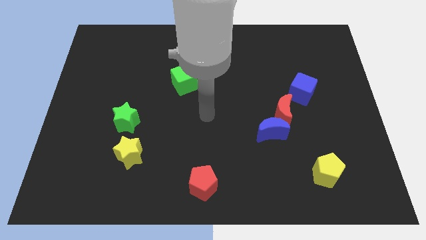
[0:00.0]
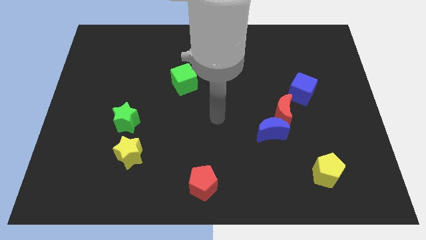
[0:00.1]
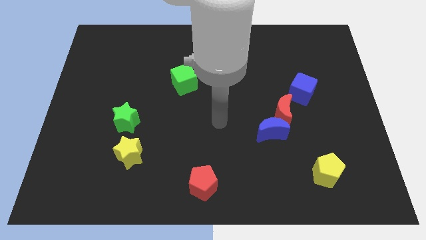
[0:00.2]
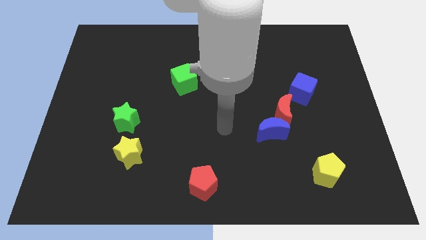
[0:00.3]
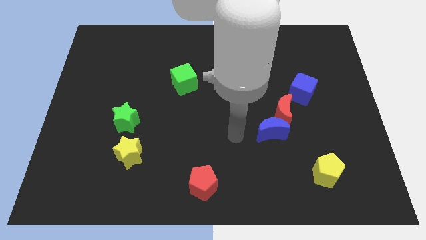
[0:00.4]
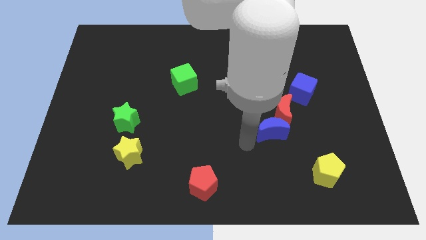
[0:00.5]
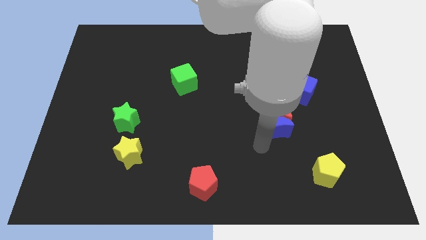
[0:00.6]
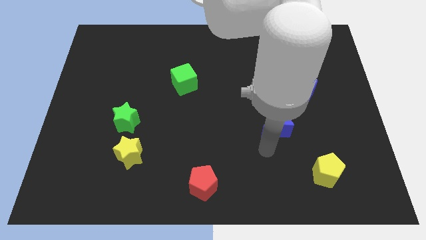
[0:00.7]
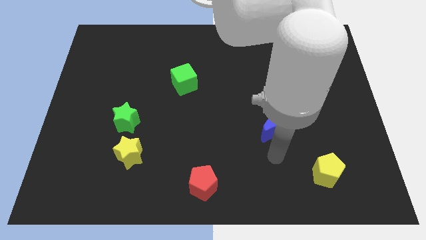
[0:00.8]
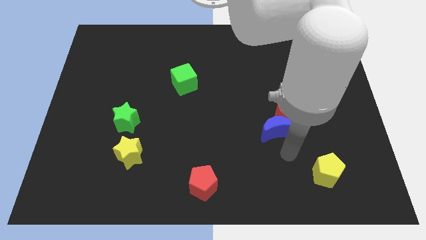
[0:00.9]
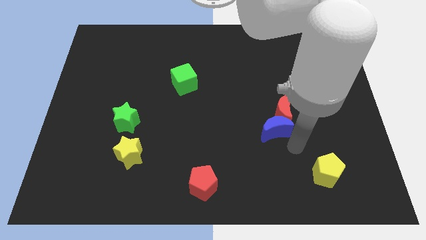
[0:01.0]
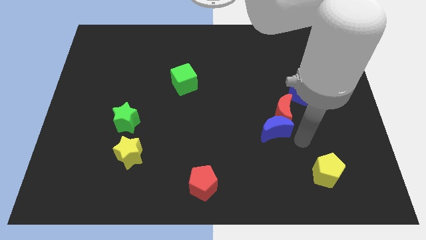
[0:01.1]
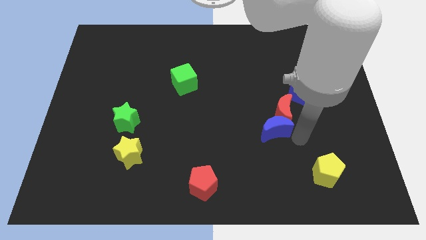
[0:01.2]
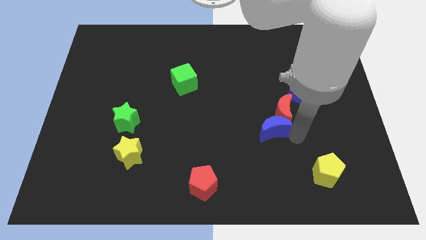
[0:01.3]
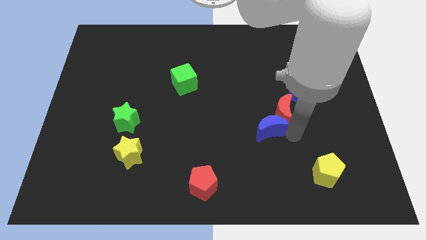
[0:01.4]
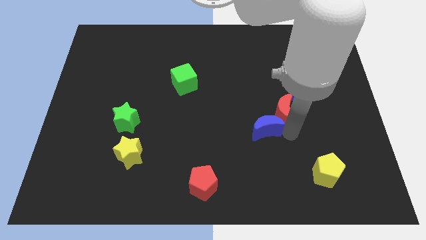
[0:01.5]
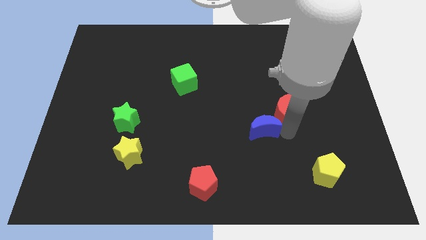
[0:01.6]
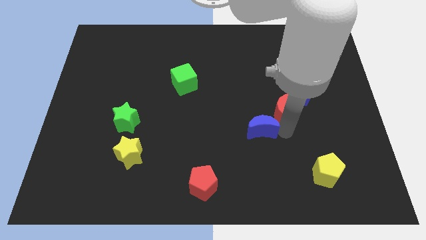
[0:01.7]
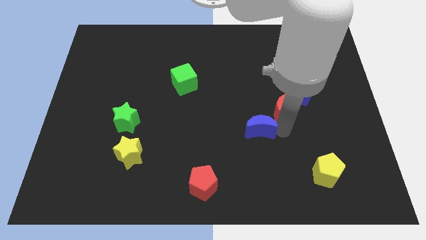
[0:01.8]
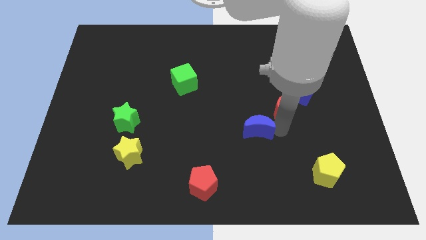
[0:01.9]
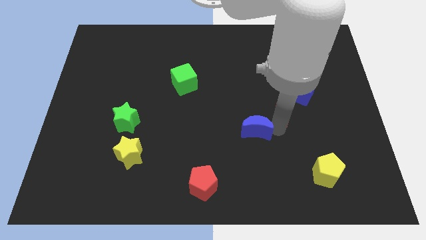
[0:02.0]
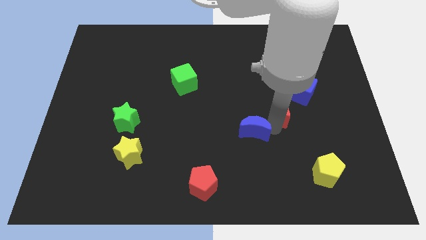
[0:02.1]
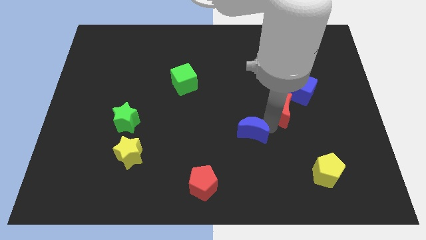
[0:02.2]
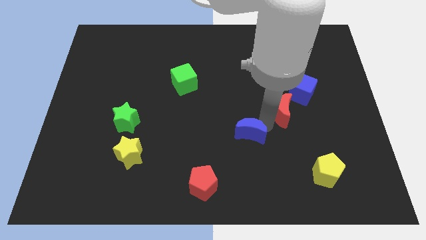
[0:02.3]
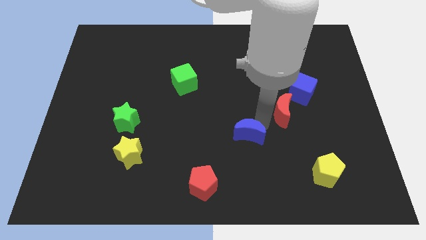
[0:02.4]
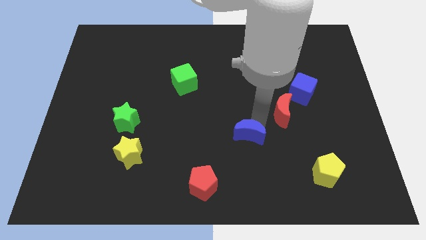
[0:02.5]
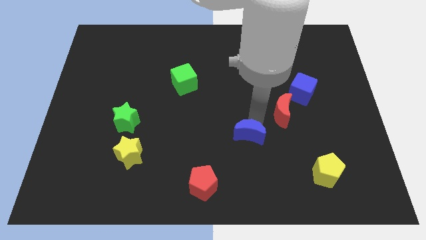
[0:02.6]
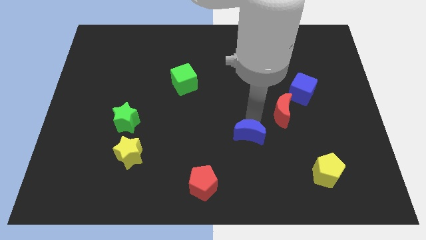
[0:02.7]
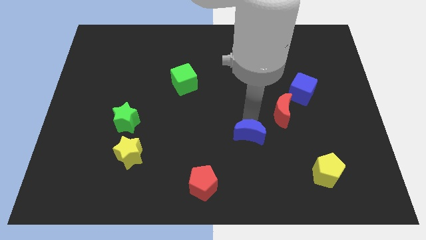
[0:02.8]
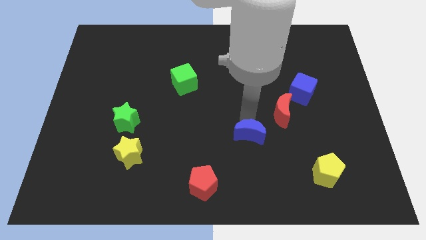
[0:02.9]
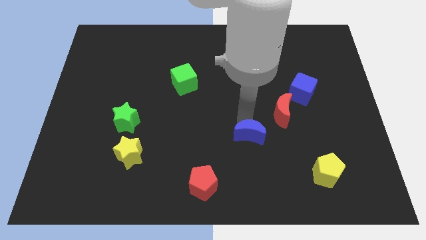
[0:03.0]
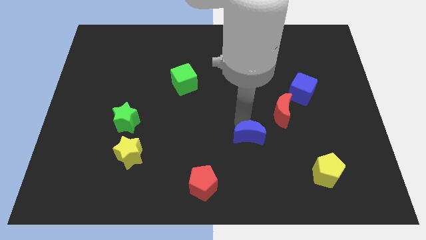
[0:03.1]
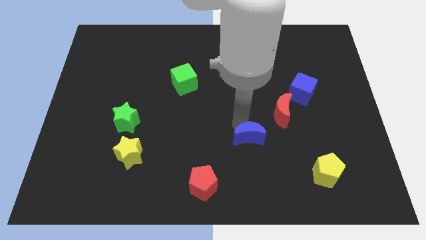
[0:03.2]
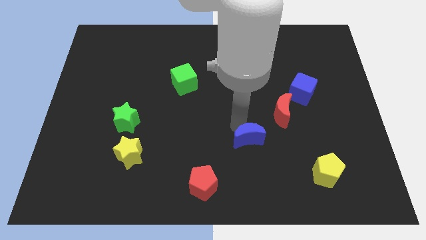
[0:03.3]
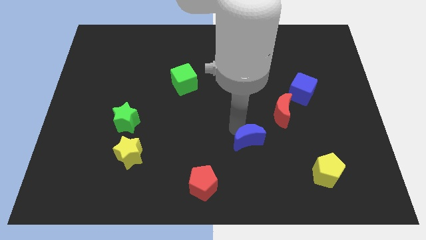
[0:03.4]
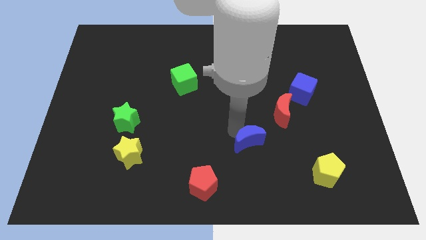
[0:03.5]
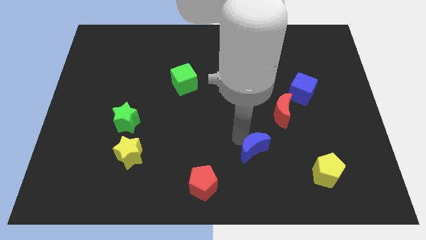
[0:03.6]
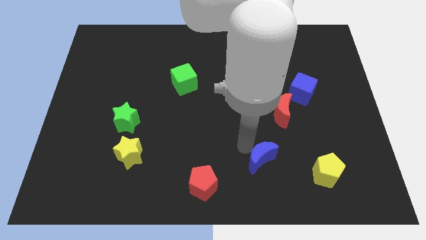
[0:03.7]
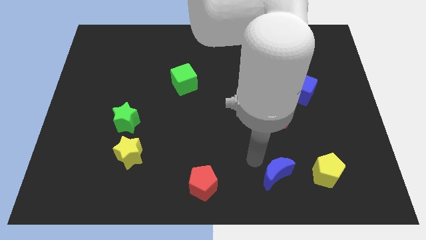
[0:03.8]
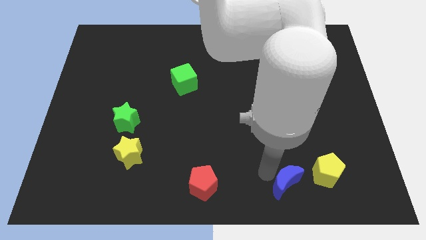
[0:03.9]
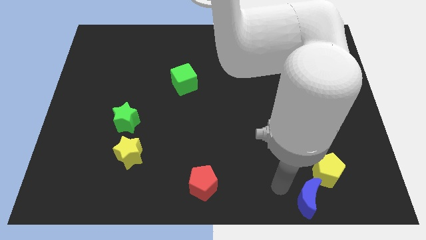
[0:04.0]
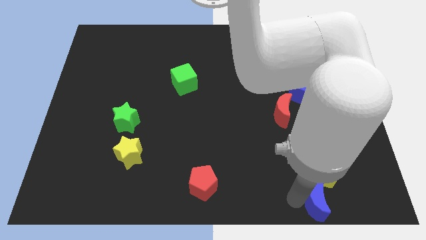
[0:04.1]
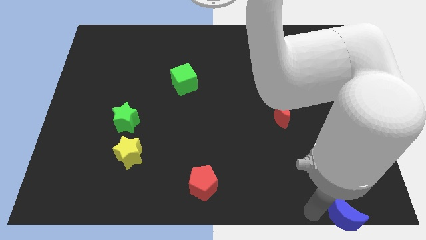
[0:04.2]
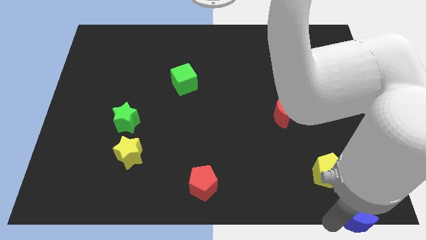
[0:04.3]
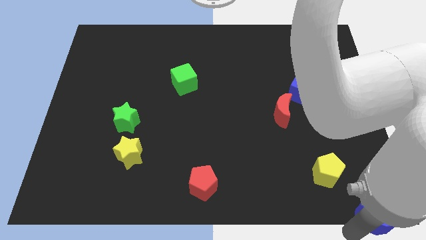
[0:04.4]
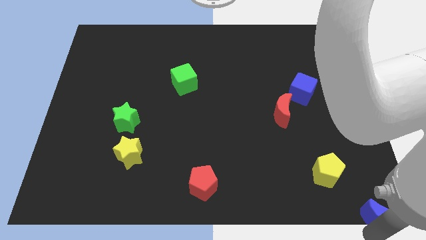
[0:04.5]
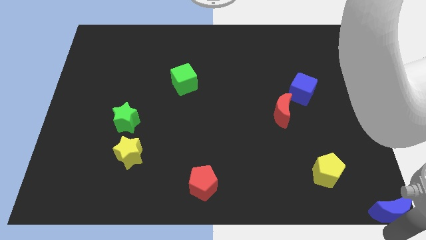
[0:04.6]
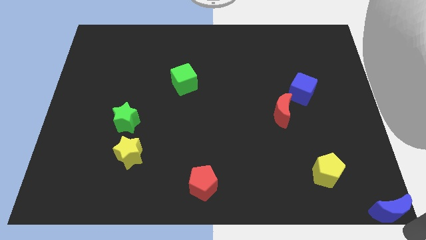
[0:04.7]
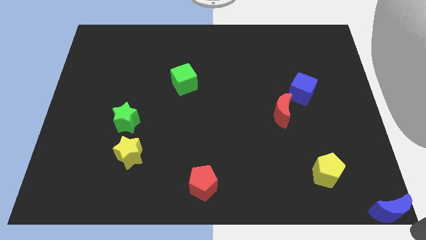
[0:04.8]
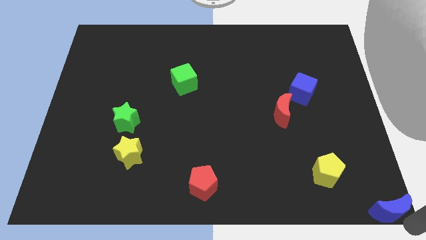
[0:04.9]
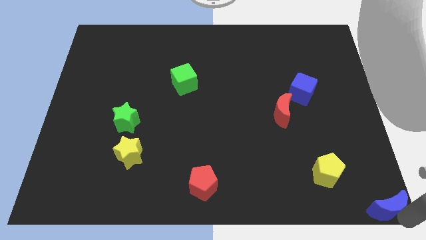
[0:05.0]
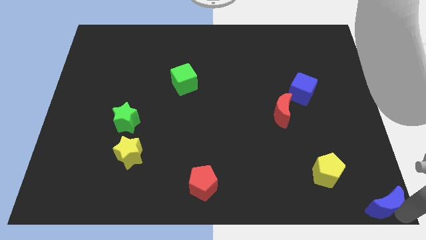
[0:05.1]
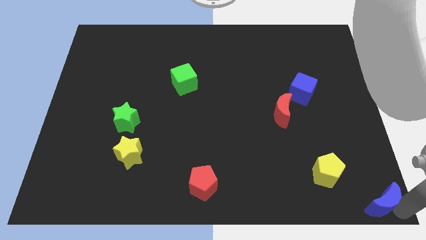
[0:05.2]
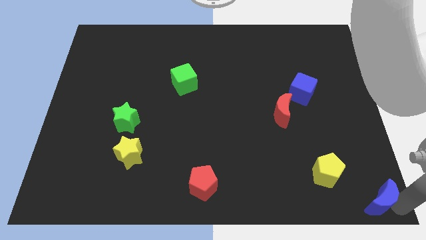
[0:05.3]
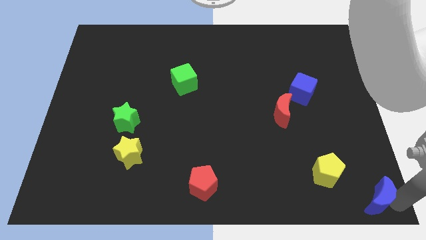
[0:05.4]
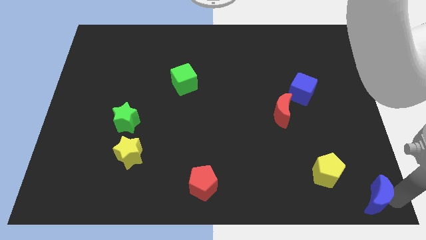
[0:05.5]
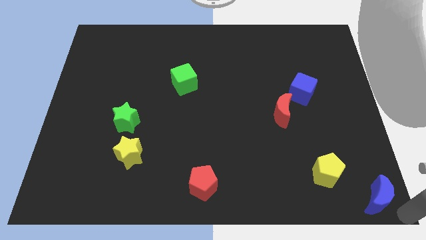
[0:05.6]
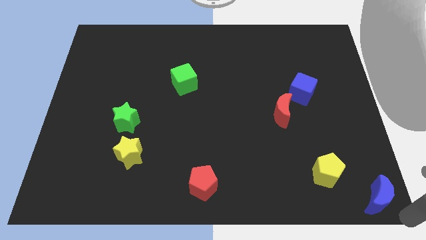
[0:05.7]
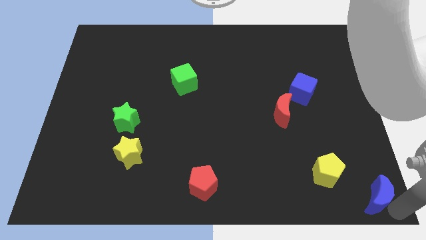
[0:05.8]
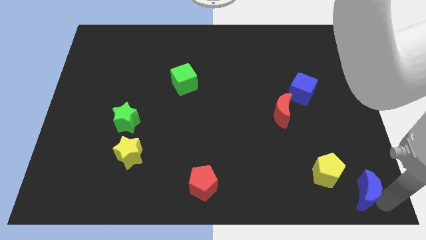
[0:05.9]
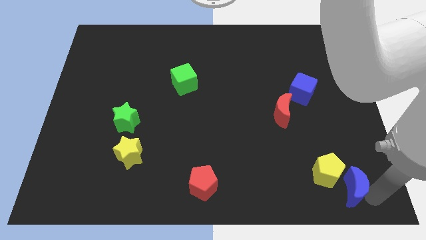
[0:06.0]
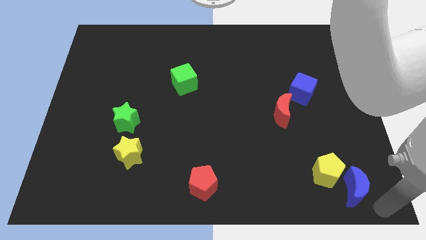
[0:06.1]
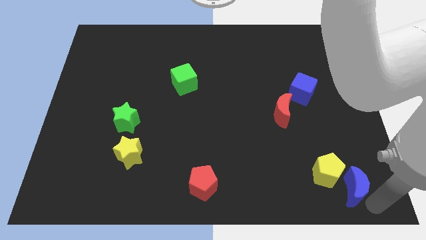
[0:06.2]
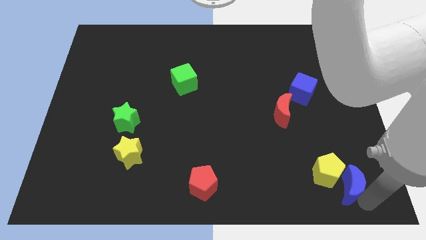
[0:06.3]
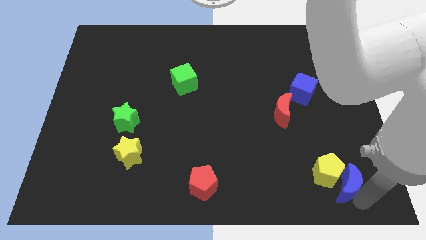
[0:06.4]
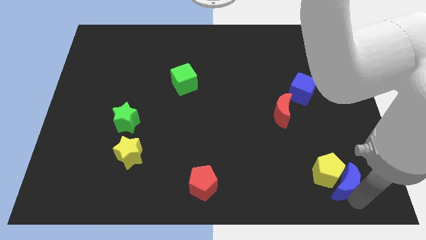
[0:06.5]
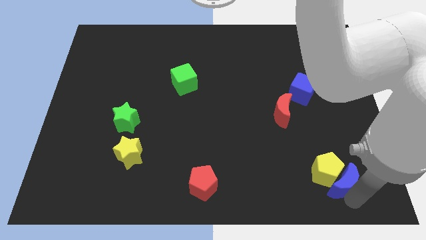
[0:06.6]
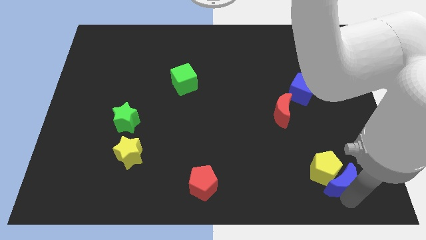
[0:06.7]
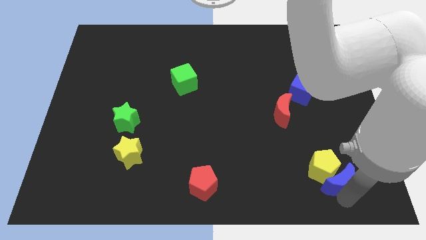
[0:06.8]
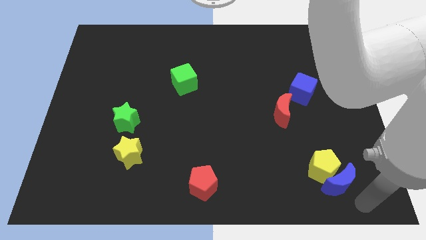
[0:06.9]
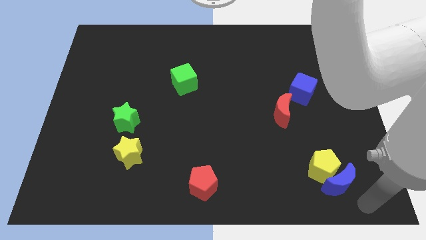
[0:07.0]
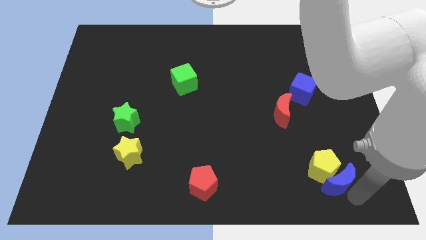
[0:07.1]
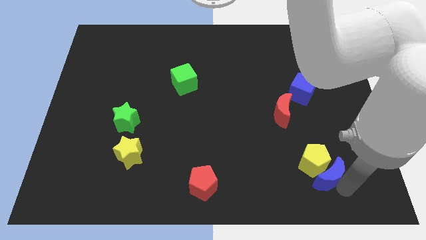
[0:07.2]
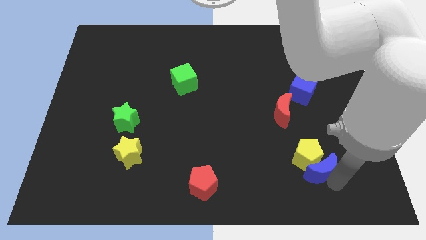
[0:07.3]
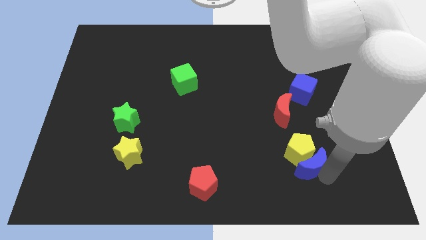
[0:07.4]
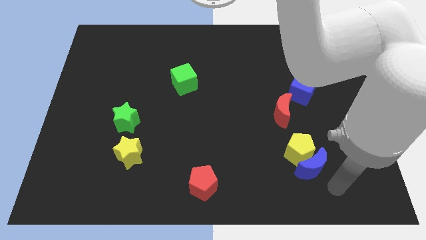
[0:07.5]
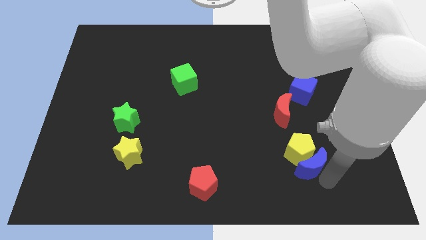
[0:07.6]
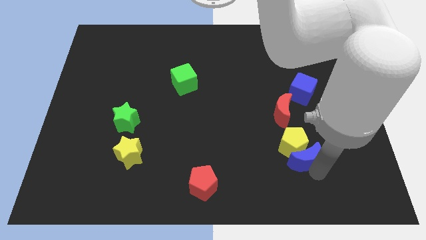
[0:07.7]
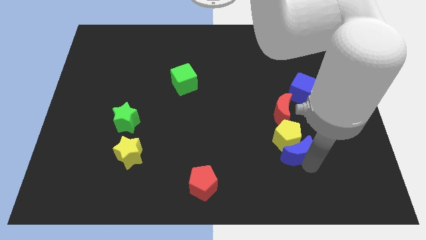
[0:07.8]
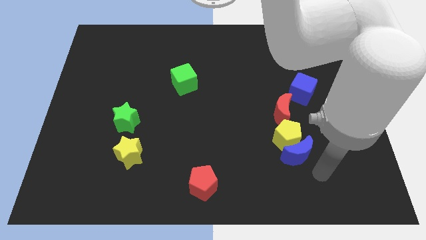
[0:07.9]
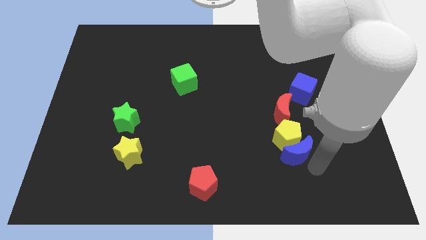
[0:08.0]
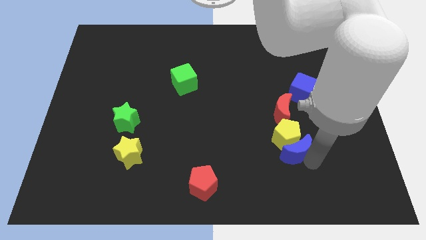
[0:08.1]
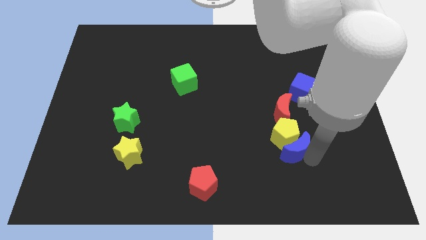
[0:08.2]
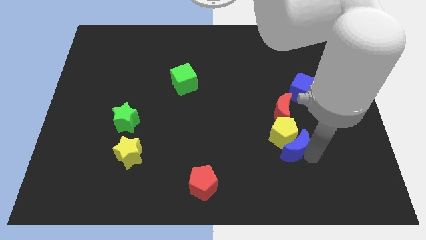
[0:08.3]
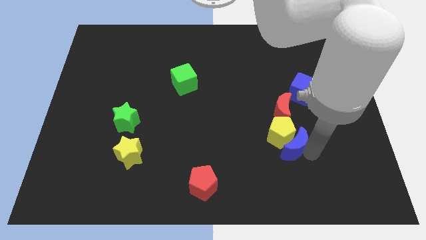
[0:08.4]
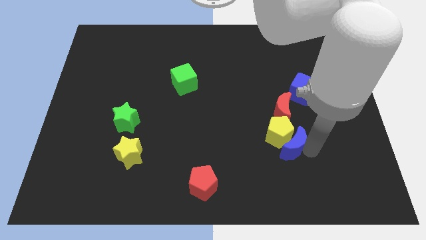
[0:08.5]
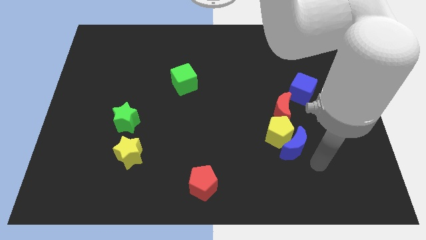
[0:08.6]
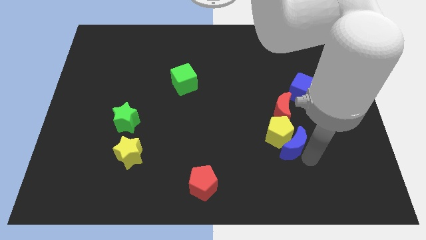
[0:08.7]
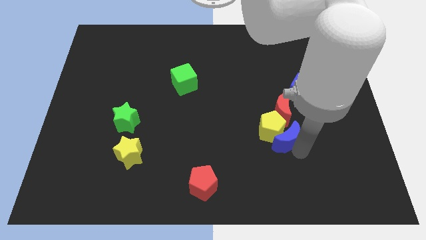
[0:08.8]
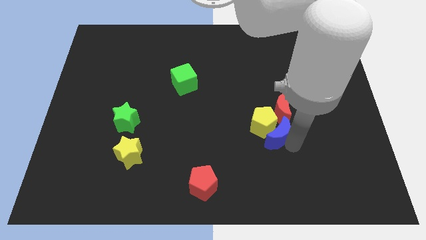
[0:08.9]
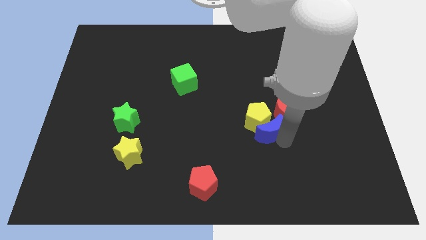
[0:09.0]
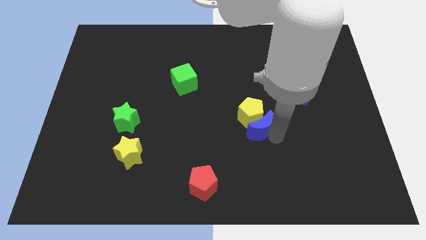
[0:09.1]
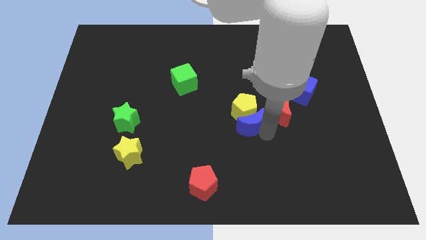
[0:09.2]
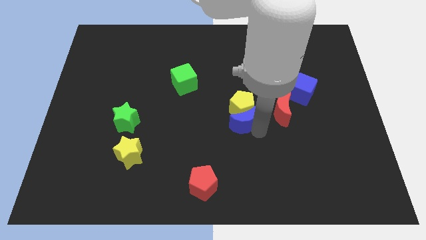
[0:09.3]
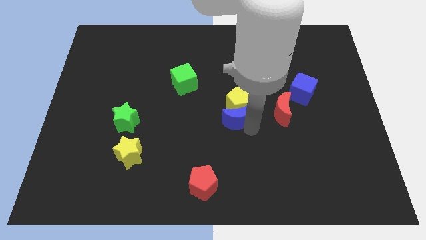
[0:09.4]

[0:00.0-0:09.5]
move the blue moon upwards and then to the left slightly
